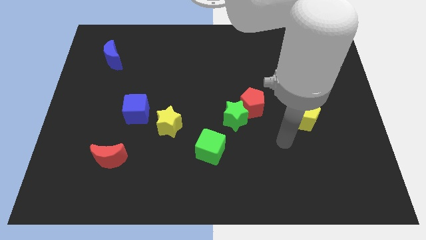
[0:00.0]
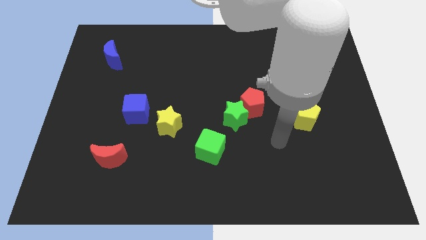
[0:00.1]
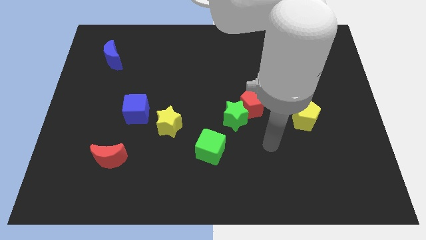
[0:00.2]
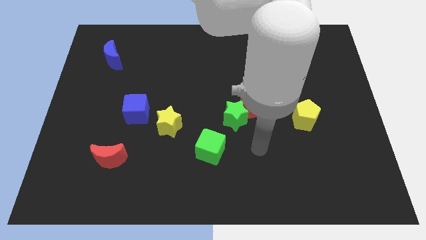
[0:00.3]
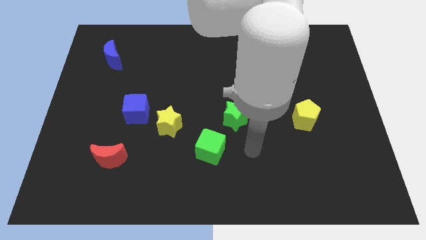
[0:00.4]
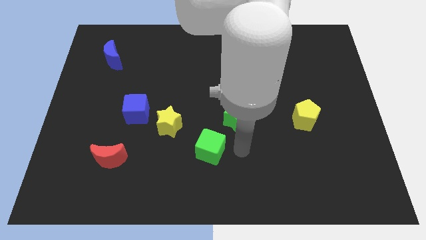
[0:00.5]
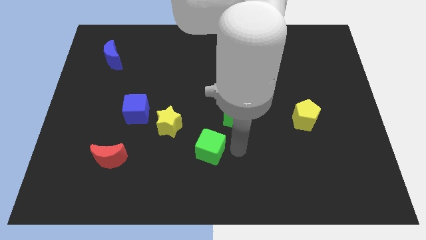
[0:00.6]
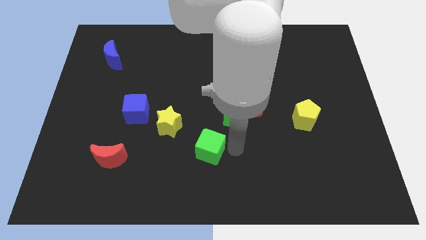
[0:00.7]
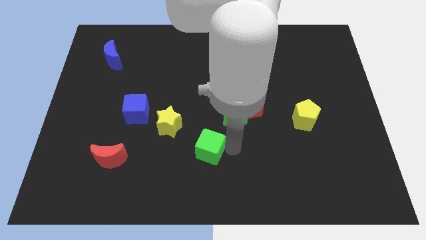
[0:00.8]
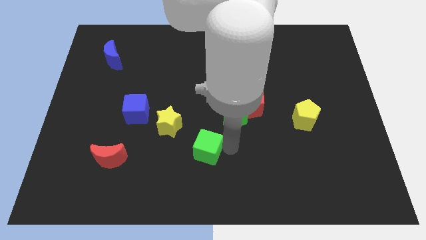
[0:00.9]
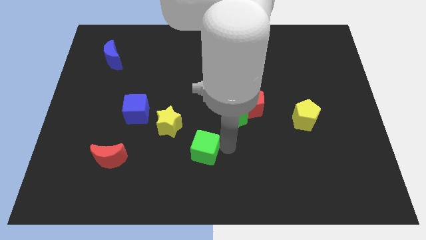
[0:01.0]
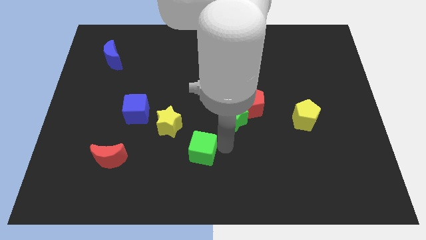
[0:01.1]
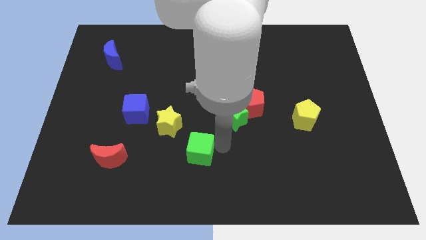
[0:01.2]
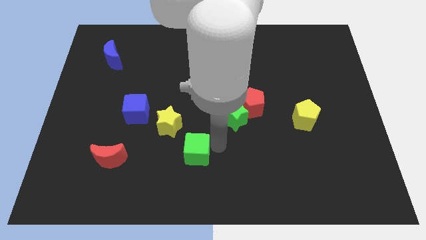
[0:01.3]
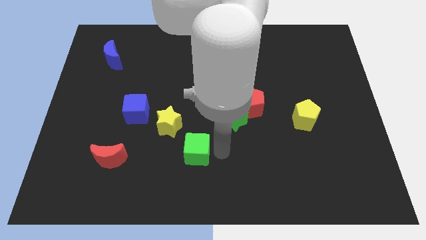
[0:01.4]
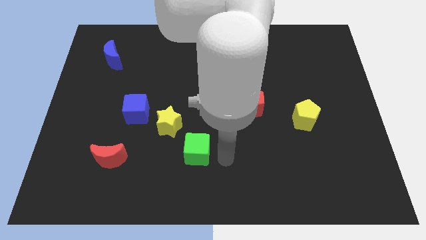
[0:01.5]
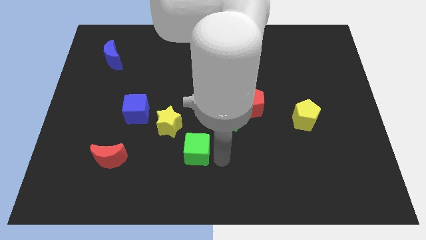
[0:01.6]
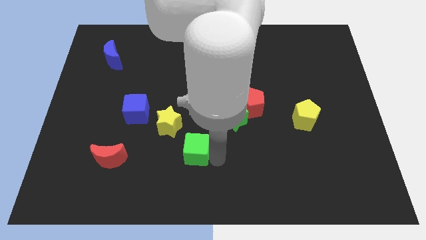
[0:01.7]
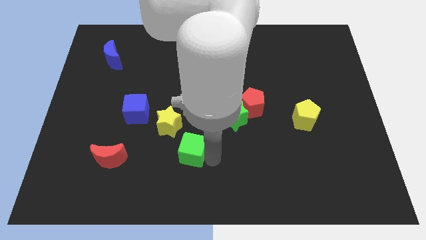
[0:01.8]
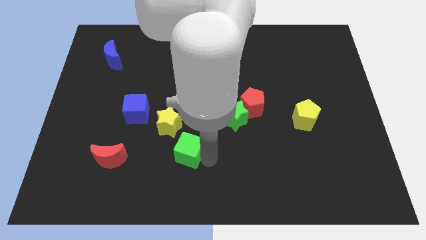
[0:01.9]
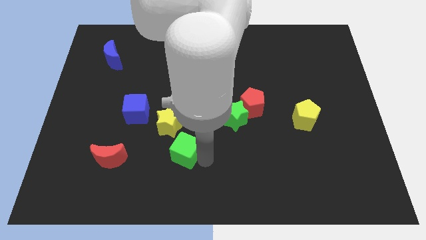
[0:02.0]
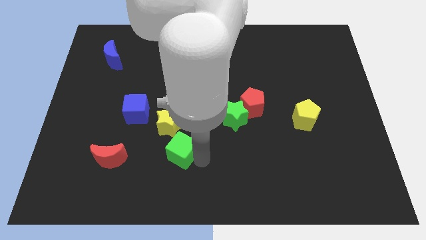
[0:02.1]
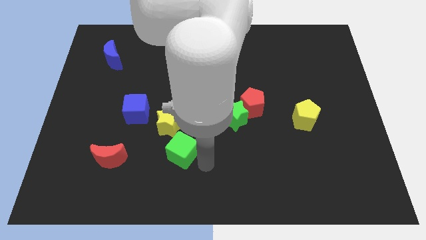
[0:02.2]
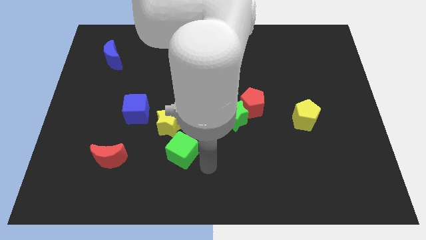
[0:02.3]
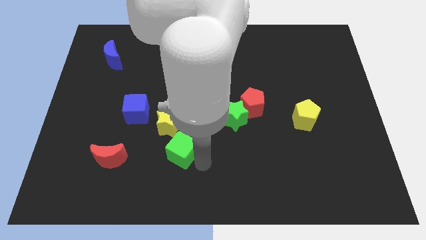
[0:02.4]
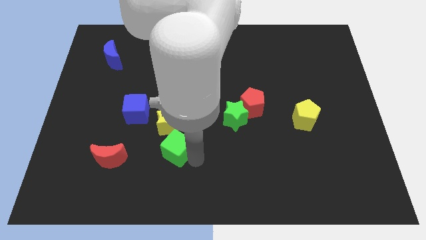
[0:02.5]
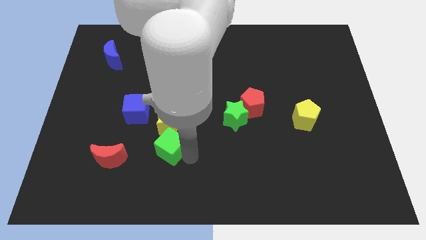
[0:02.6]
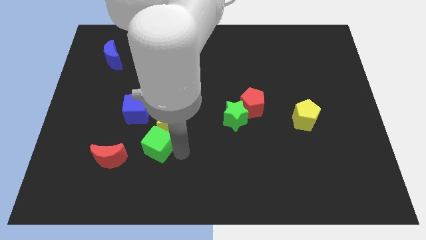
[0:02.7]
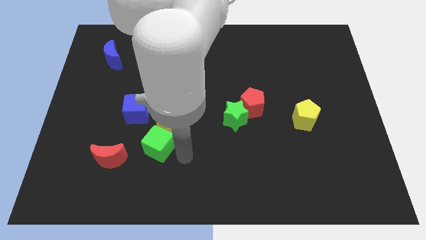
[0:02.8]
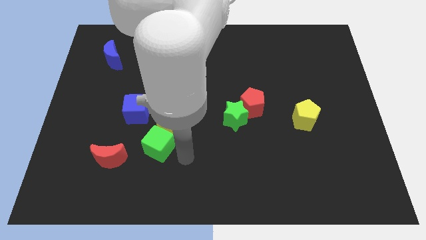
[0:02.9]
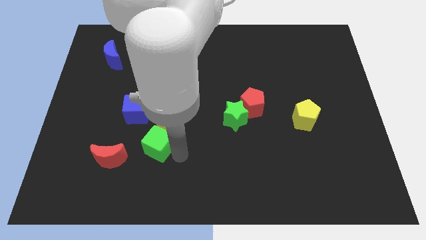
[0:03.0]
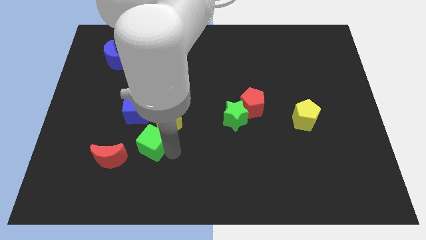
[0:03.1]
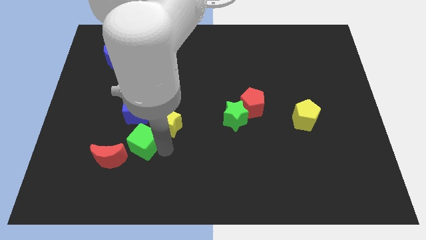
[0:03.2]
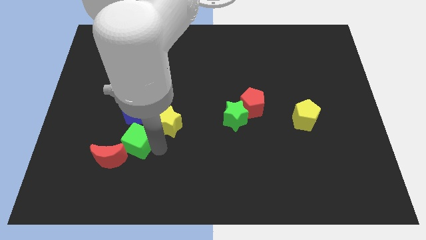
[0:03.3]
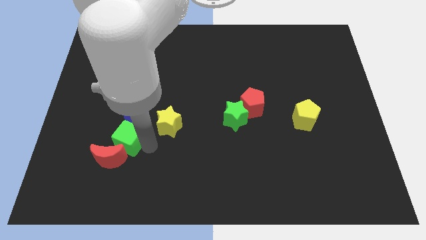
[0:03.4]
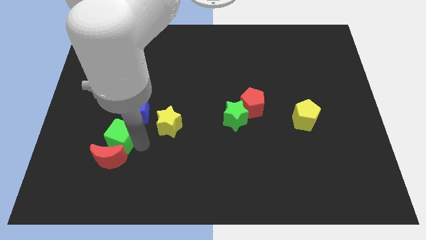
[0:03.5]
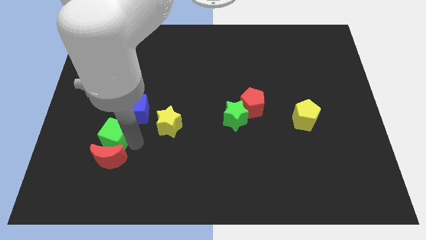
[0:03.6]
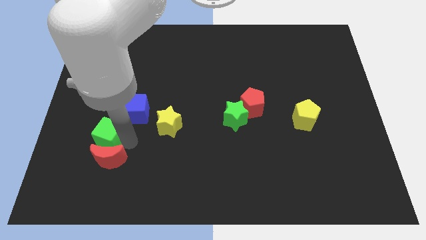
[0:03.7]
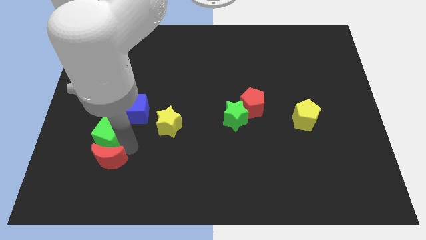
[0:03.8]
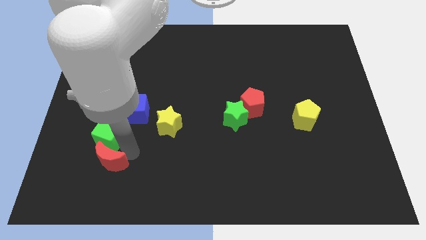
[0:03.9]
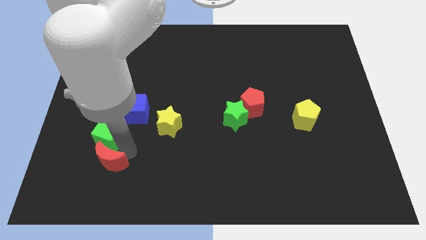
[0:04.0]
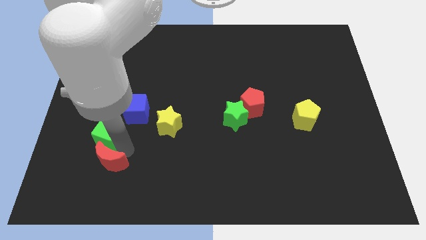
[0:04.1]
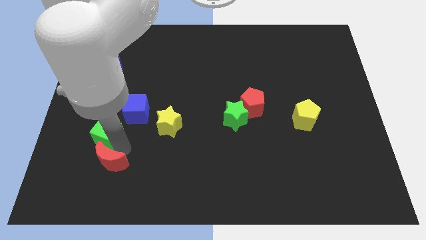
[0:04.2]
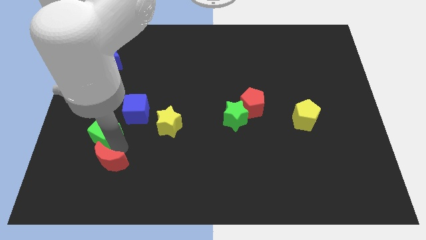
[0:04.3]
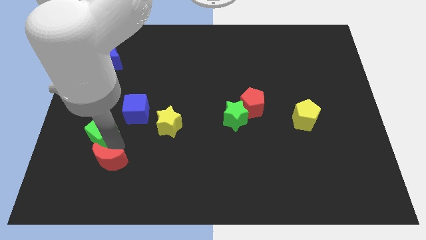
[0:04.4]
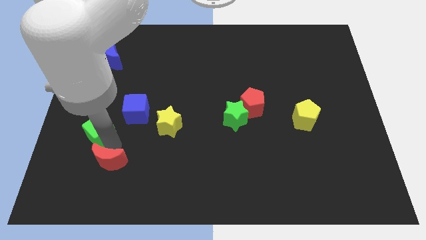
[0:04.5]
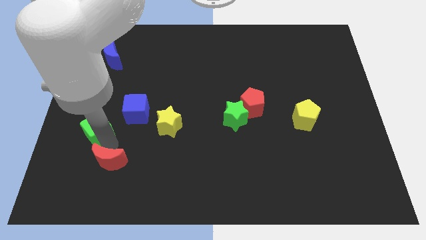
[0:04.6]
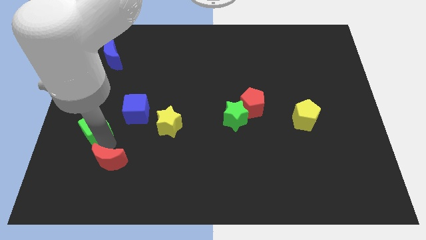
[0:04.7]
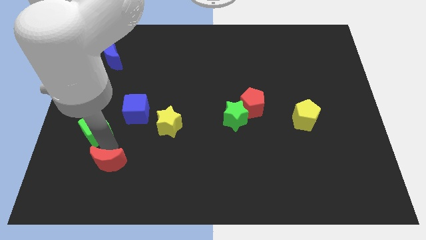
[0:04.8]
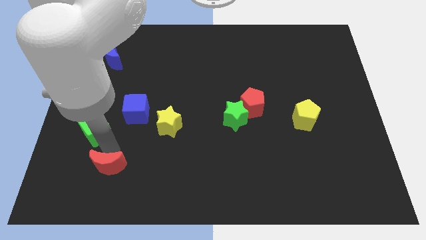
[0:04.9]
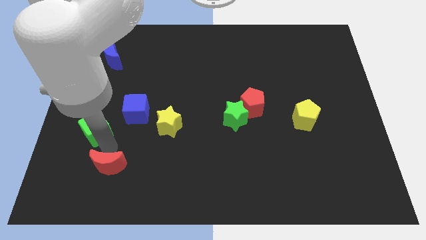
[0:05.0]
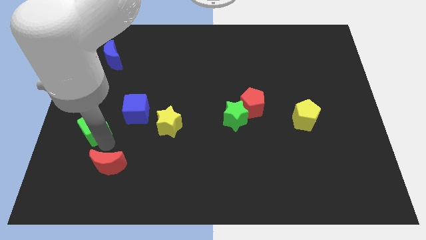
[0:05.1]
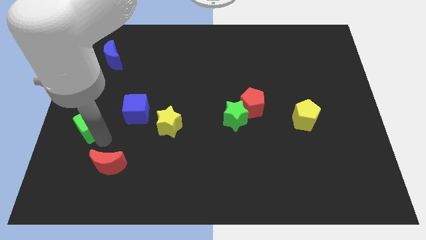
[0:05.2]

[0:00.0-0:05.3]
move the green cube to the center left

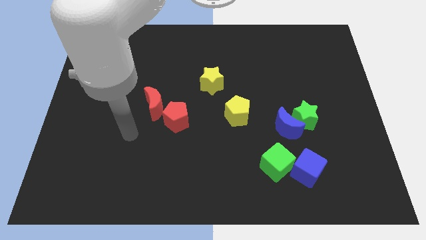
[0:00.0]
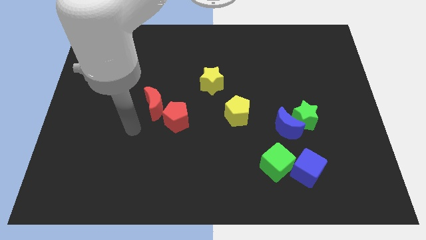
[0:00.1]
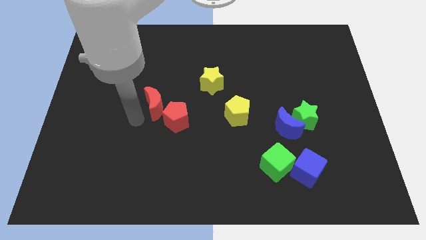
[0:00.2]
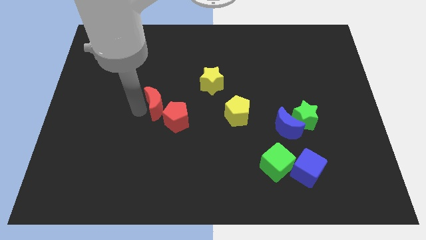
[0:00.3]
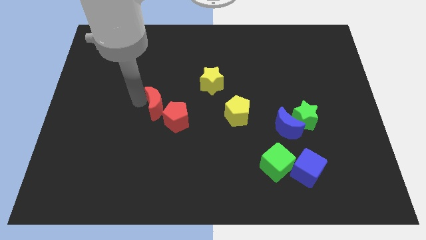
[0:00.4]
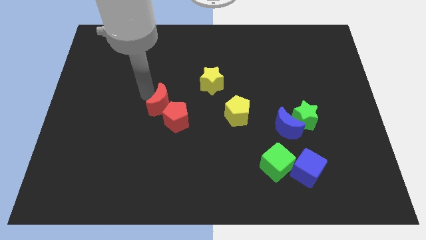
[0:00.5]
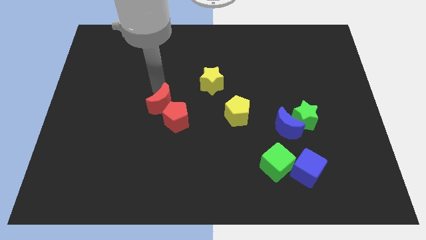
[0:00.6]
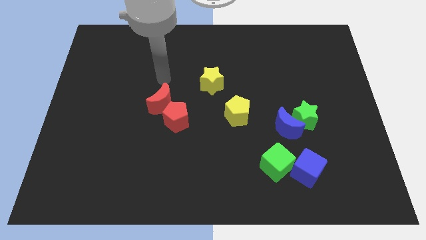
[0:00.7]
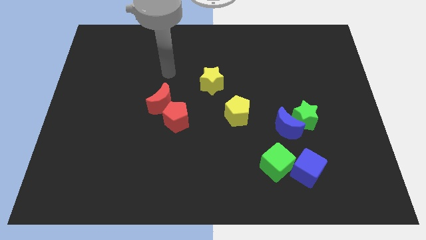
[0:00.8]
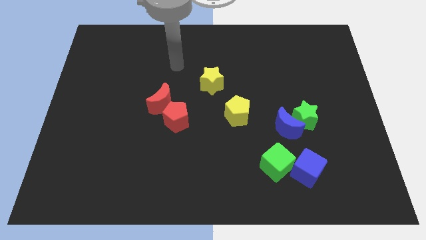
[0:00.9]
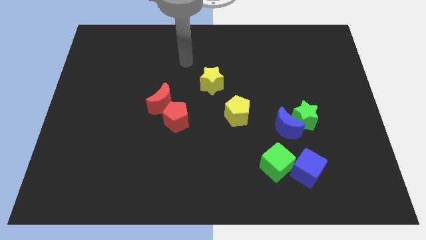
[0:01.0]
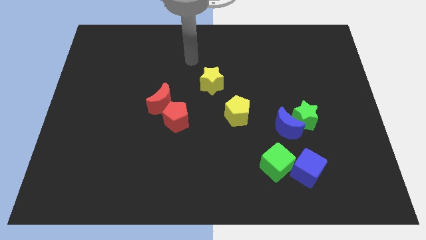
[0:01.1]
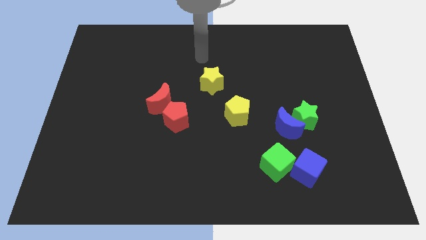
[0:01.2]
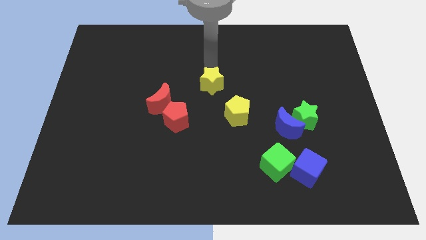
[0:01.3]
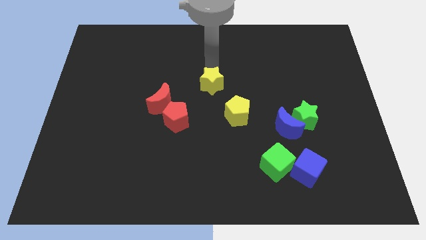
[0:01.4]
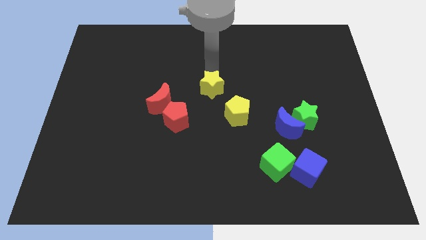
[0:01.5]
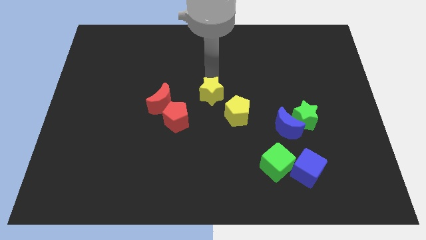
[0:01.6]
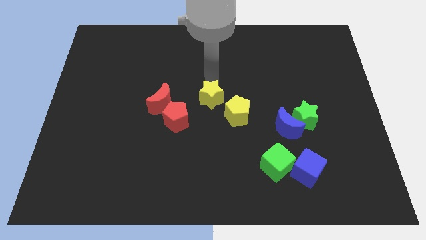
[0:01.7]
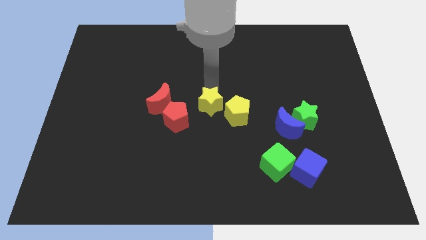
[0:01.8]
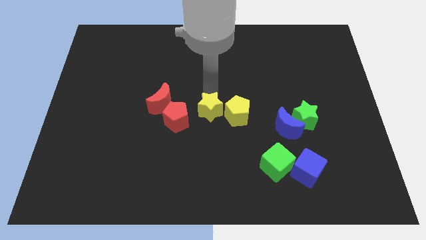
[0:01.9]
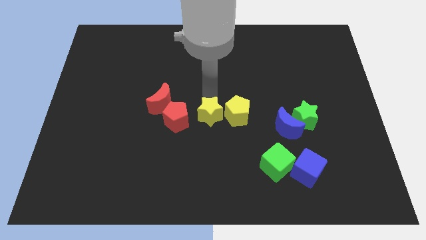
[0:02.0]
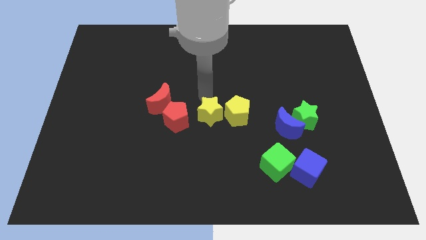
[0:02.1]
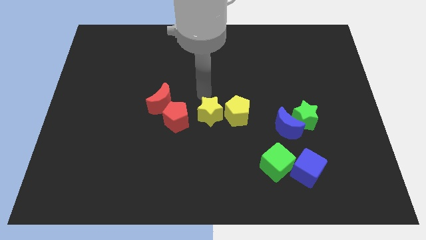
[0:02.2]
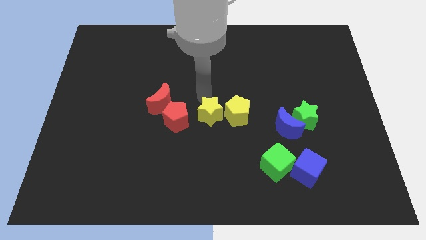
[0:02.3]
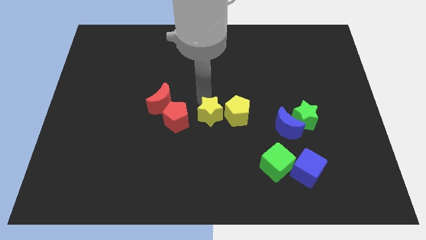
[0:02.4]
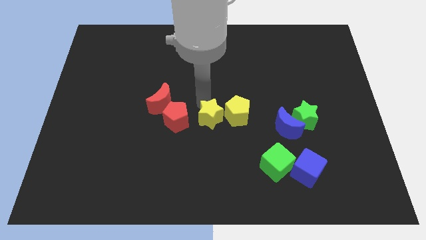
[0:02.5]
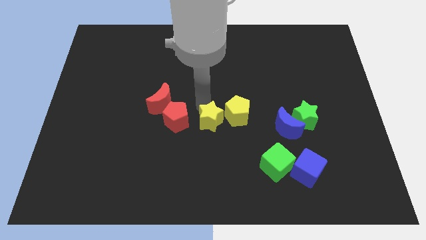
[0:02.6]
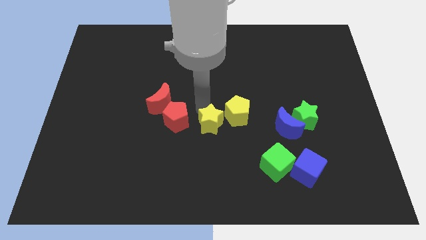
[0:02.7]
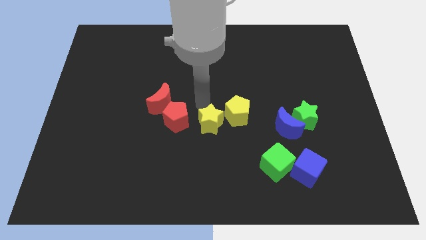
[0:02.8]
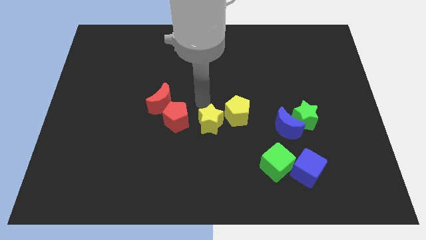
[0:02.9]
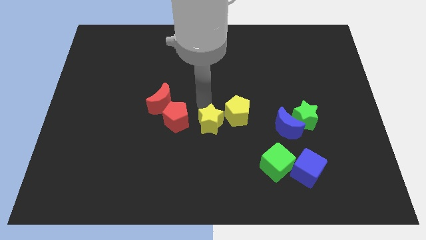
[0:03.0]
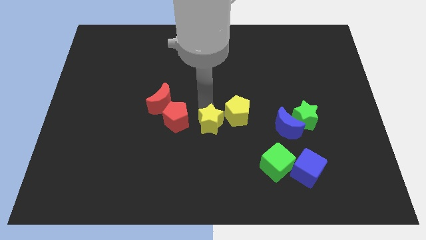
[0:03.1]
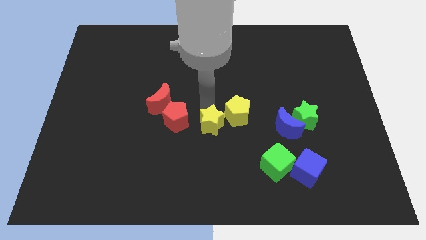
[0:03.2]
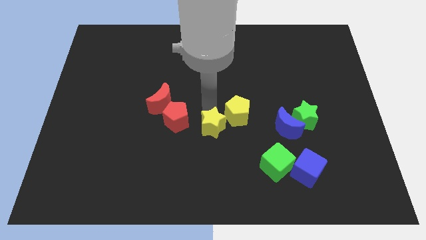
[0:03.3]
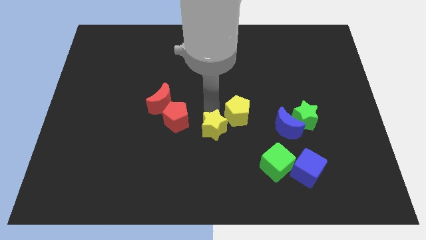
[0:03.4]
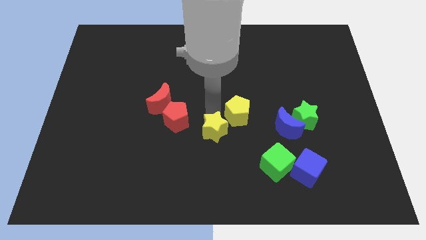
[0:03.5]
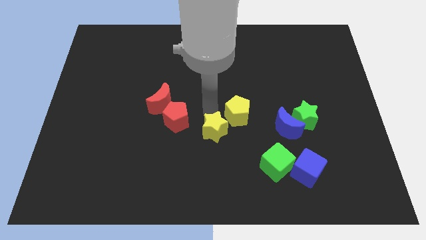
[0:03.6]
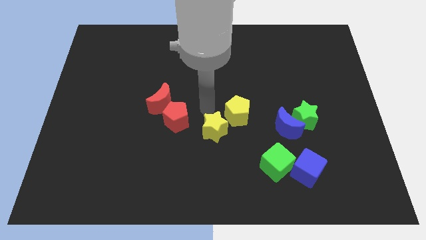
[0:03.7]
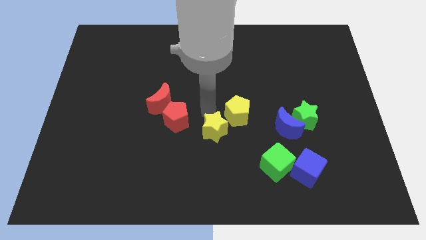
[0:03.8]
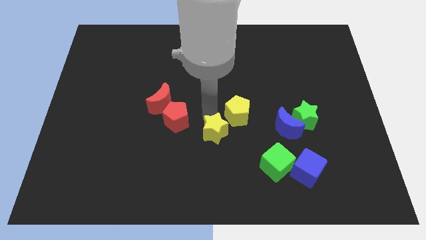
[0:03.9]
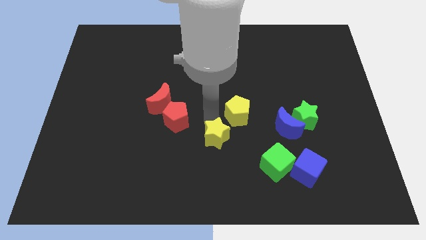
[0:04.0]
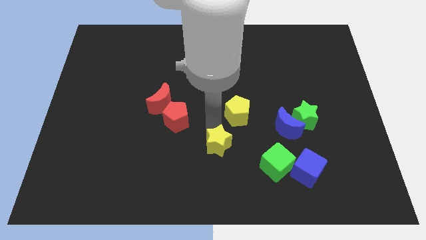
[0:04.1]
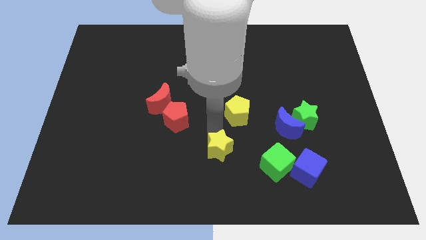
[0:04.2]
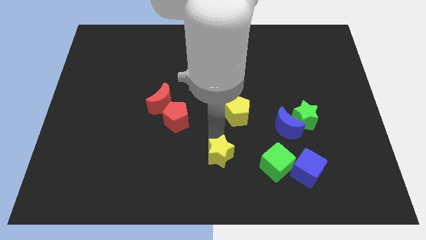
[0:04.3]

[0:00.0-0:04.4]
put the yellow star to the bottom side
